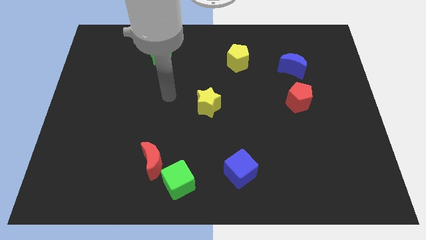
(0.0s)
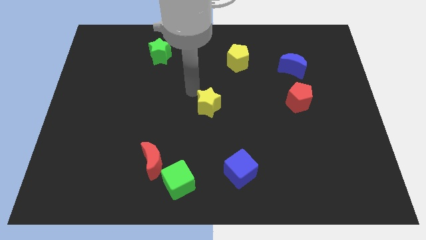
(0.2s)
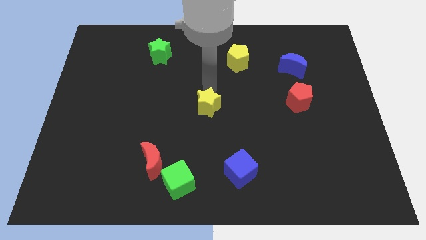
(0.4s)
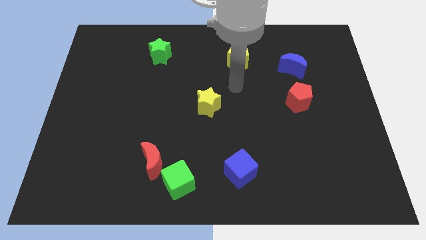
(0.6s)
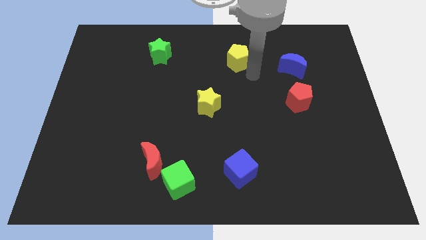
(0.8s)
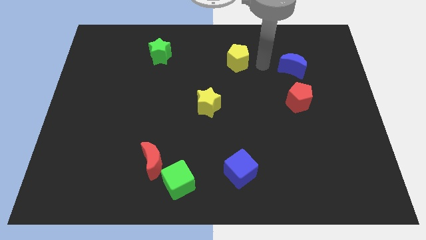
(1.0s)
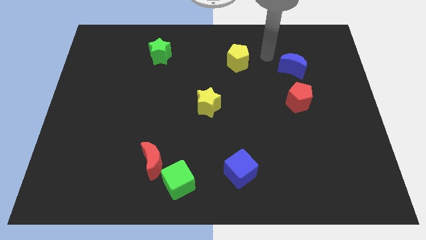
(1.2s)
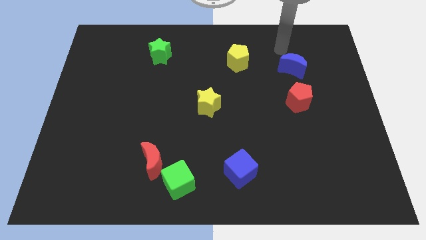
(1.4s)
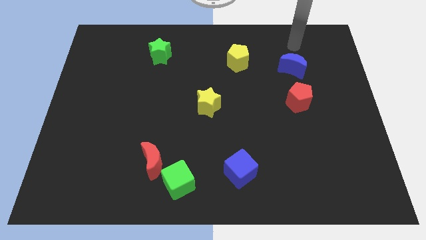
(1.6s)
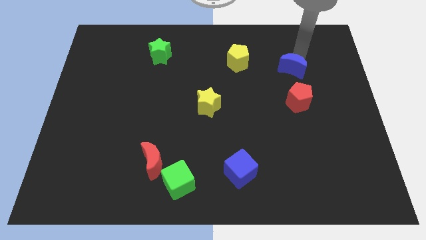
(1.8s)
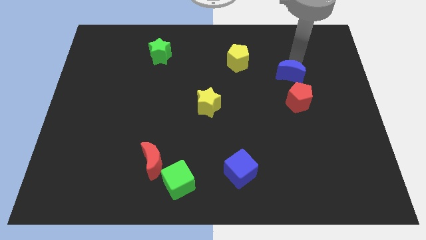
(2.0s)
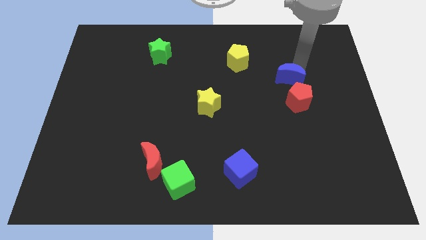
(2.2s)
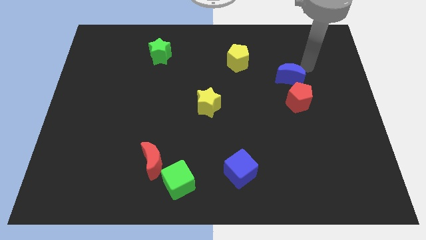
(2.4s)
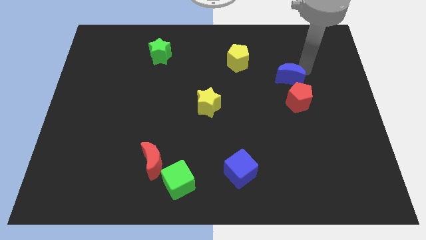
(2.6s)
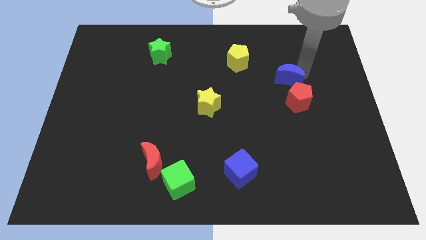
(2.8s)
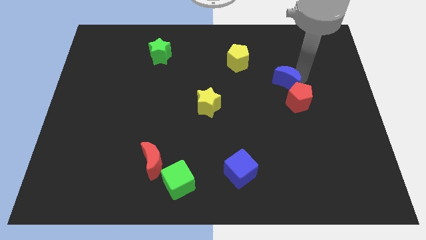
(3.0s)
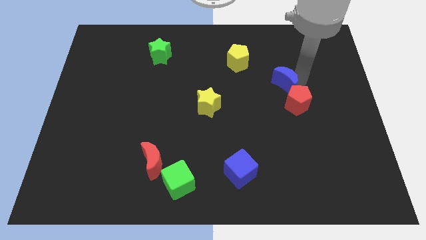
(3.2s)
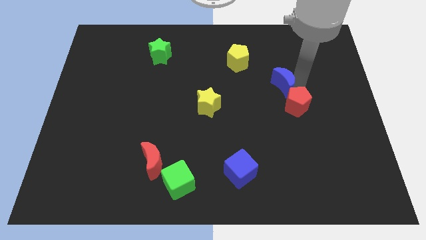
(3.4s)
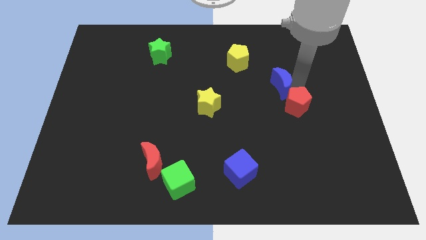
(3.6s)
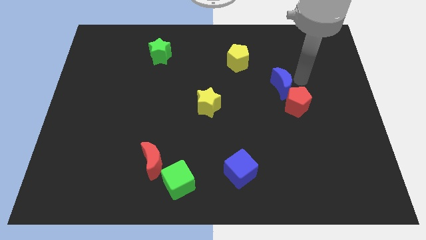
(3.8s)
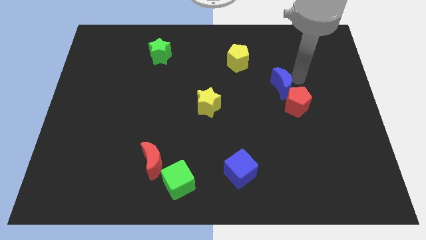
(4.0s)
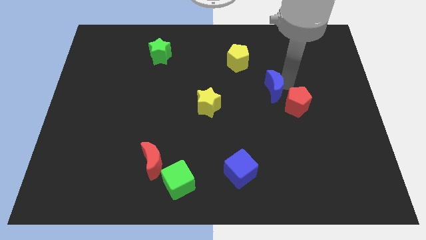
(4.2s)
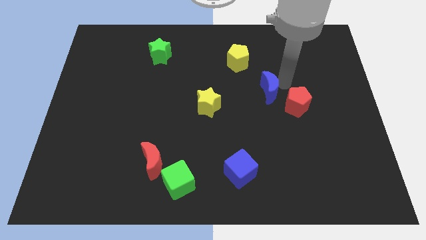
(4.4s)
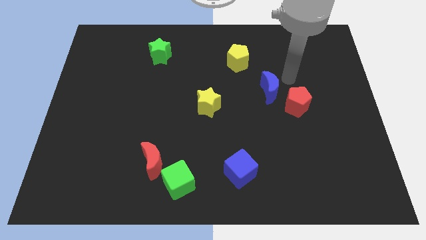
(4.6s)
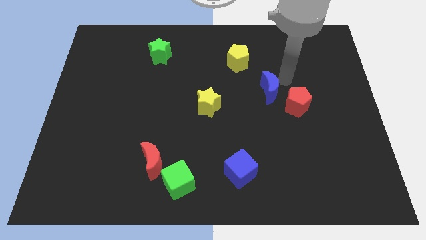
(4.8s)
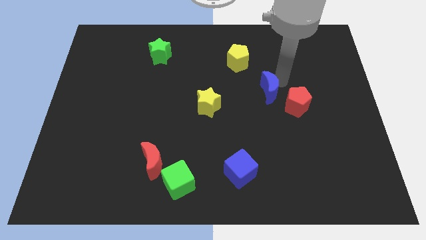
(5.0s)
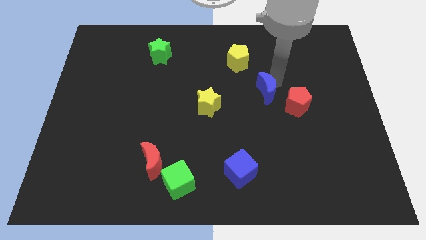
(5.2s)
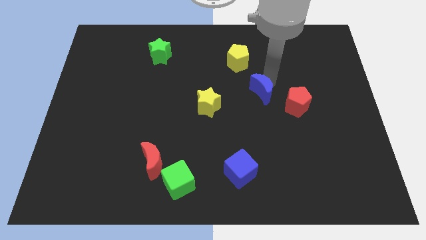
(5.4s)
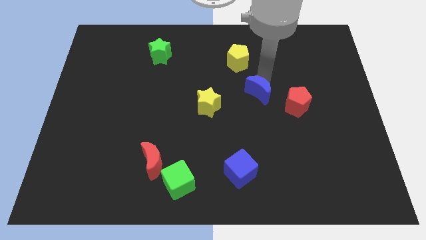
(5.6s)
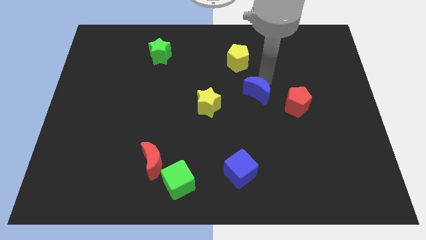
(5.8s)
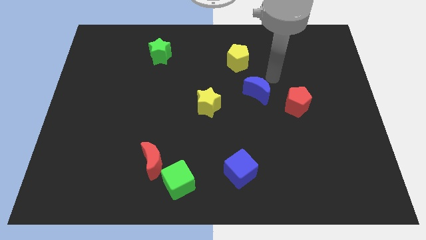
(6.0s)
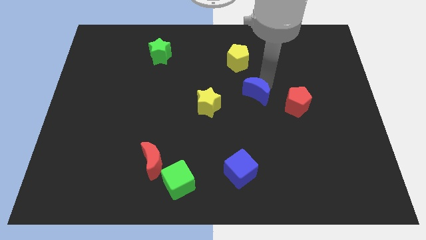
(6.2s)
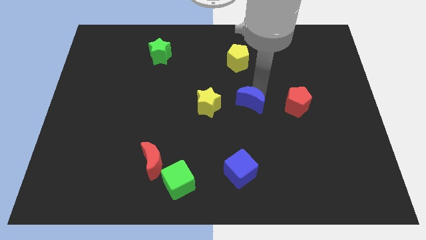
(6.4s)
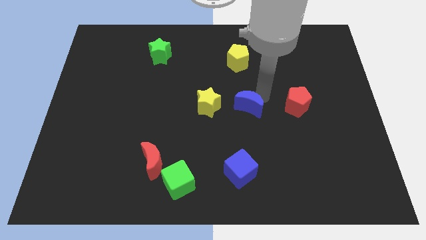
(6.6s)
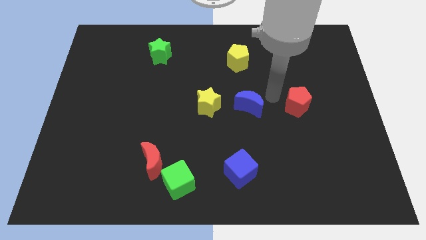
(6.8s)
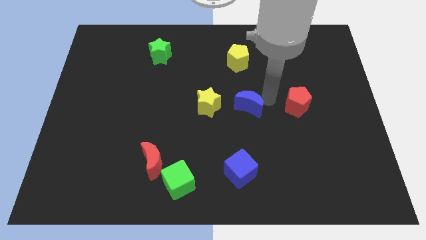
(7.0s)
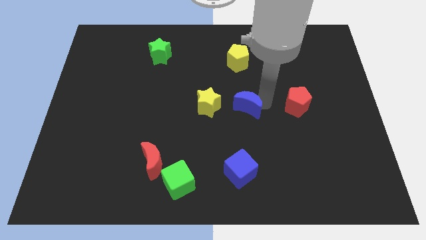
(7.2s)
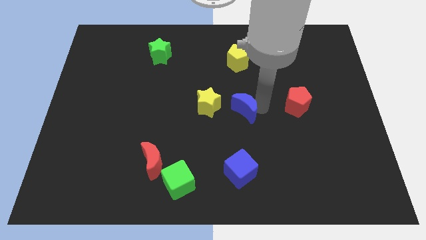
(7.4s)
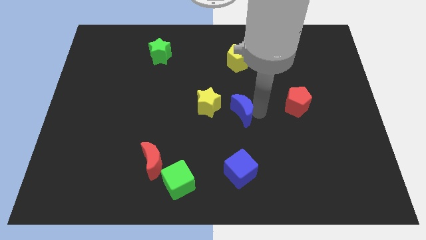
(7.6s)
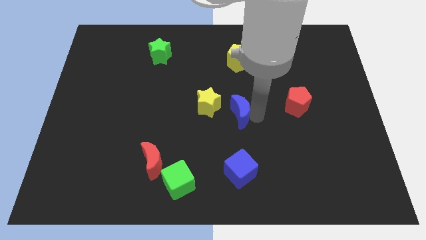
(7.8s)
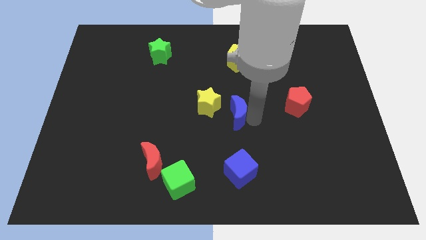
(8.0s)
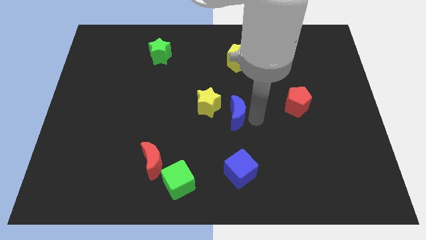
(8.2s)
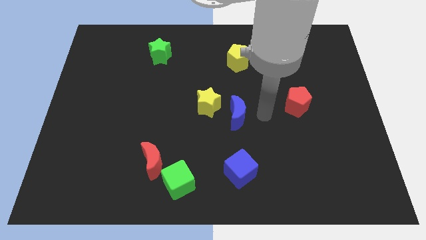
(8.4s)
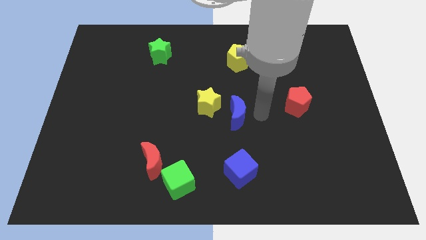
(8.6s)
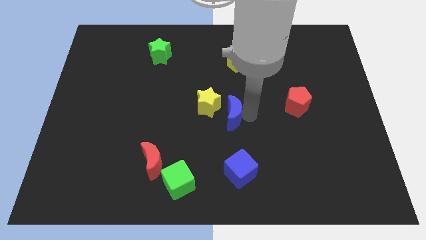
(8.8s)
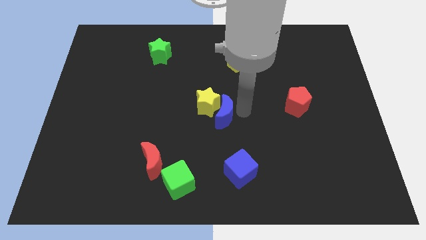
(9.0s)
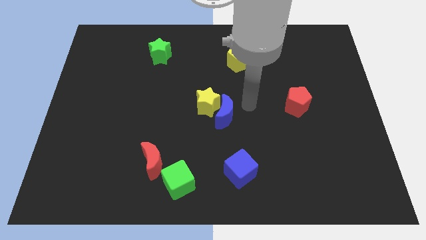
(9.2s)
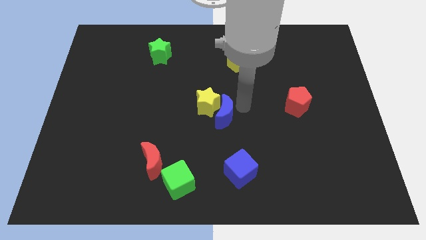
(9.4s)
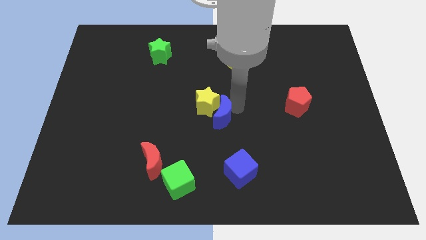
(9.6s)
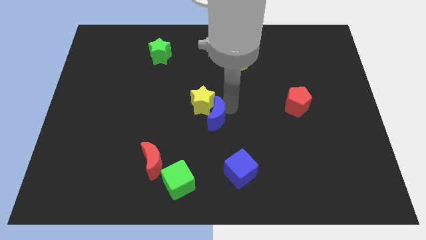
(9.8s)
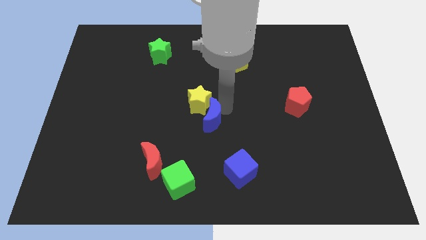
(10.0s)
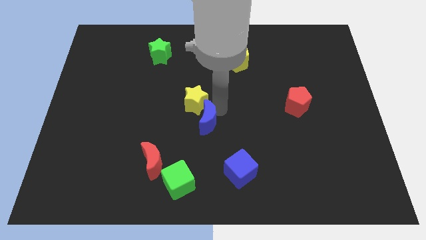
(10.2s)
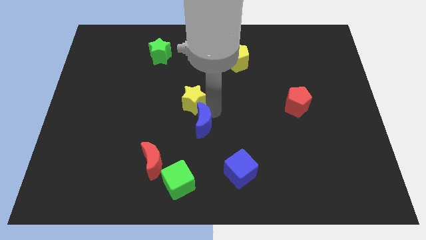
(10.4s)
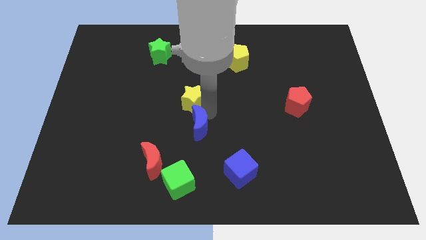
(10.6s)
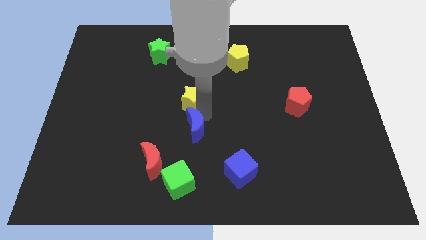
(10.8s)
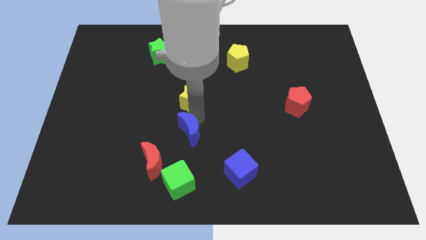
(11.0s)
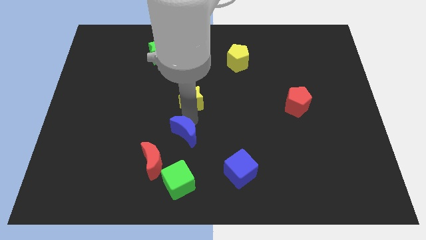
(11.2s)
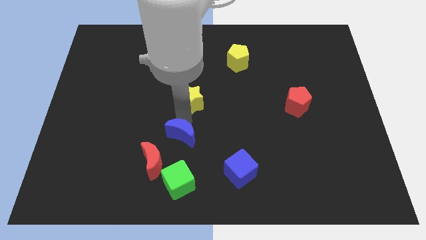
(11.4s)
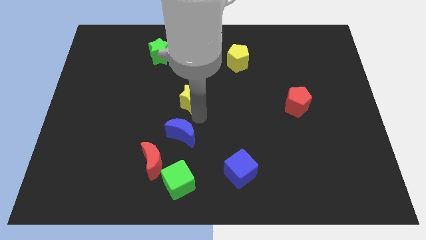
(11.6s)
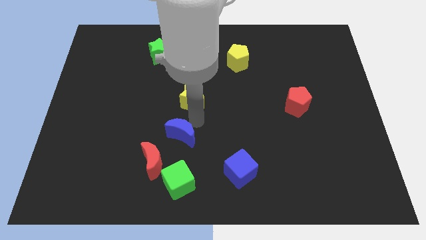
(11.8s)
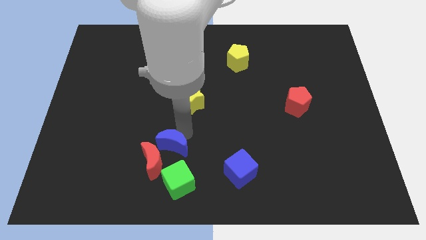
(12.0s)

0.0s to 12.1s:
move the blue moon next to the red moon
